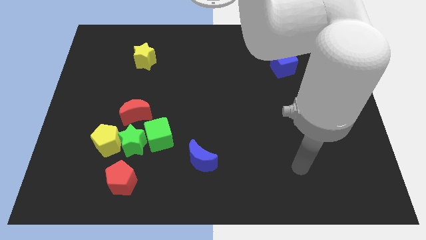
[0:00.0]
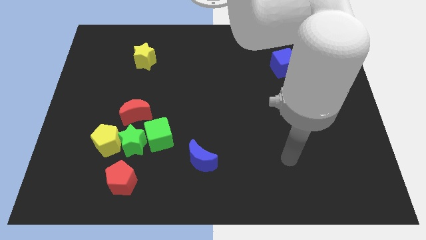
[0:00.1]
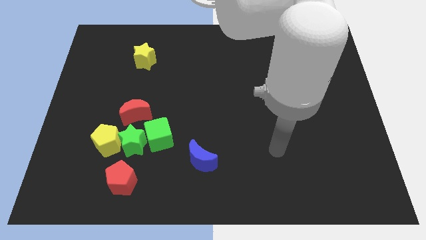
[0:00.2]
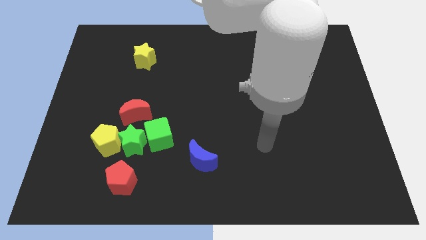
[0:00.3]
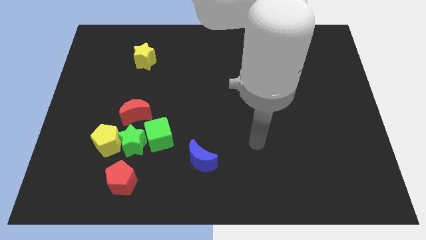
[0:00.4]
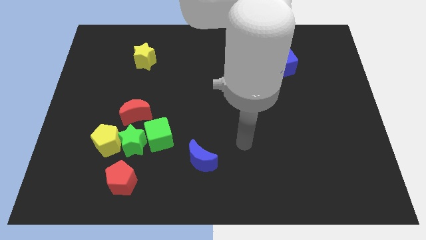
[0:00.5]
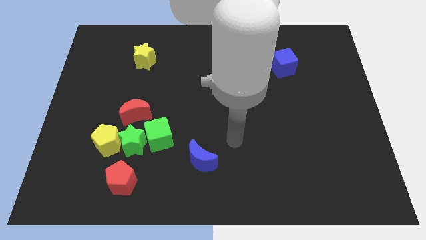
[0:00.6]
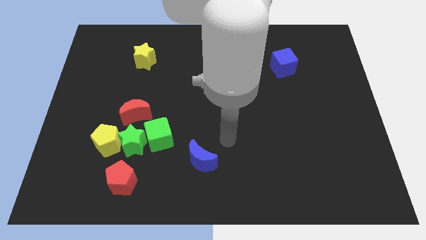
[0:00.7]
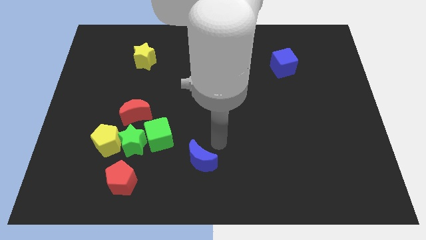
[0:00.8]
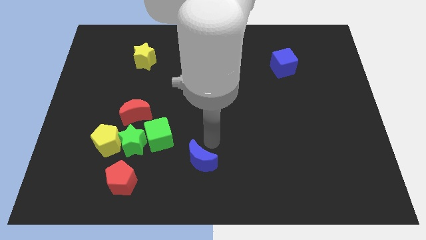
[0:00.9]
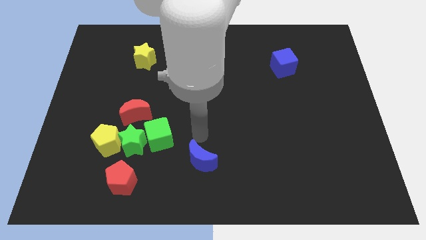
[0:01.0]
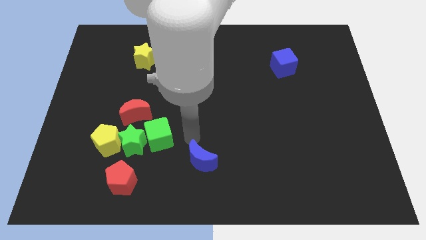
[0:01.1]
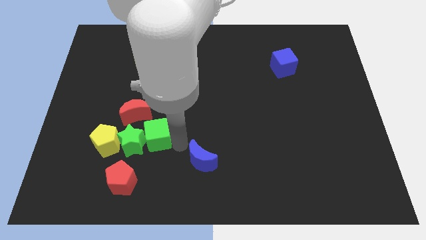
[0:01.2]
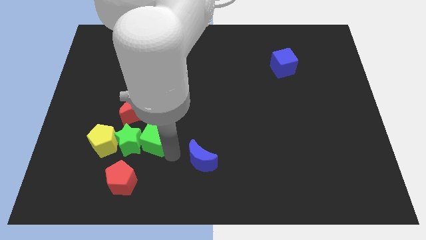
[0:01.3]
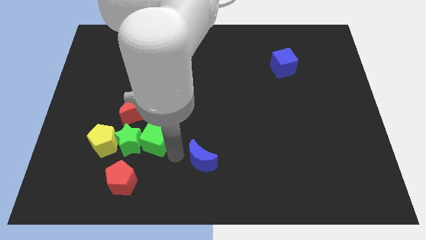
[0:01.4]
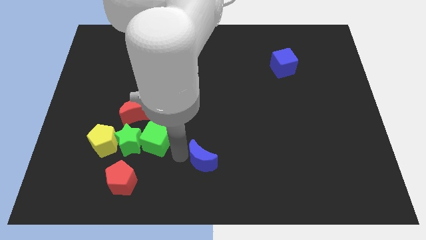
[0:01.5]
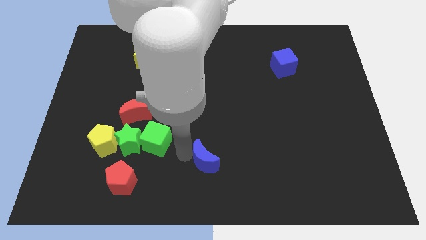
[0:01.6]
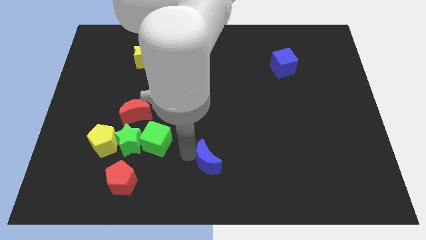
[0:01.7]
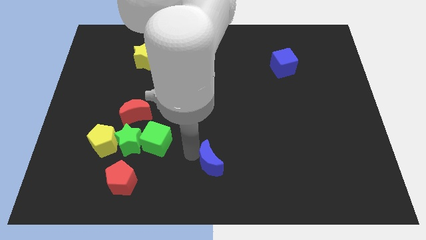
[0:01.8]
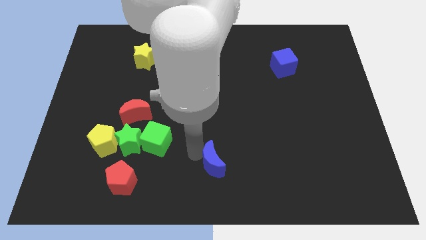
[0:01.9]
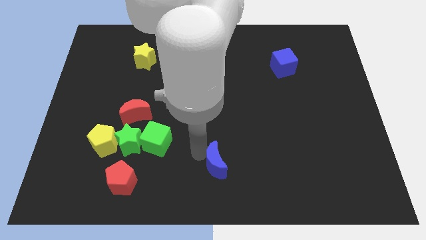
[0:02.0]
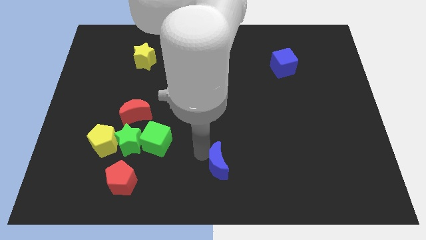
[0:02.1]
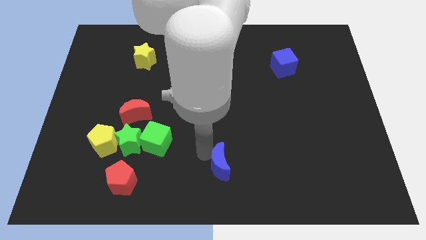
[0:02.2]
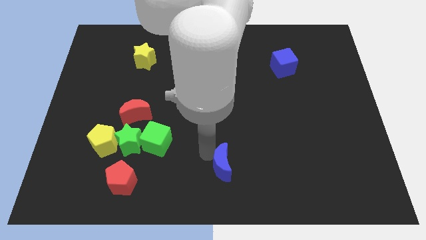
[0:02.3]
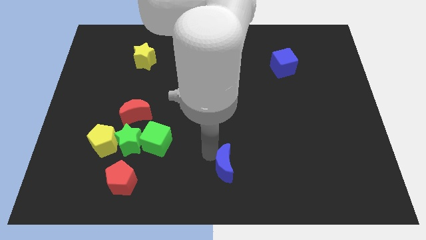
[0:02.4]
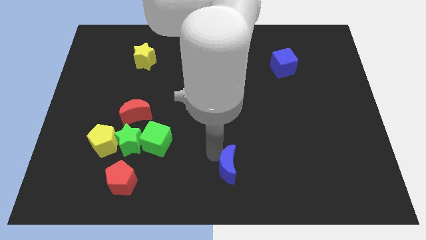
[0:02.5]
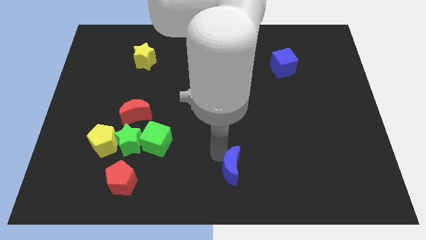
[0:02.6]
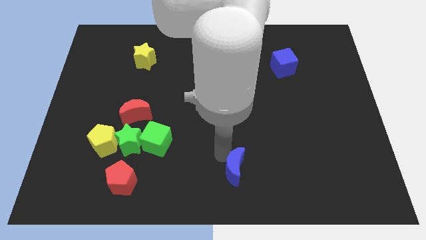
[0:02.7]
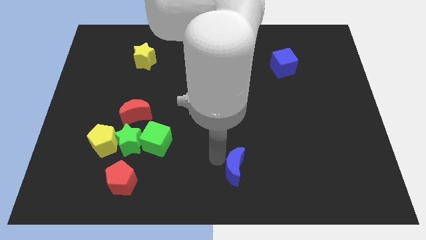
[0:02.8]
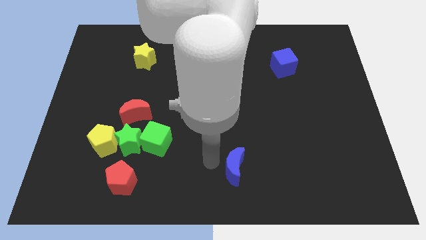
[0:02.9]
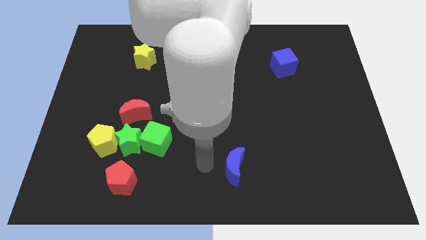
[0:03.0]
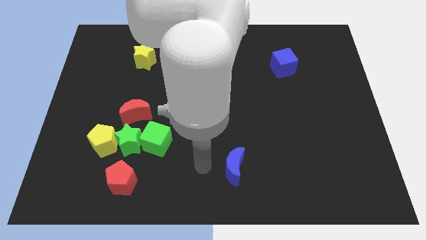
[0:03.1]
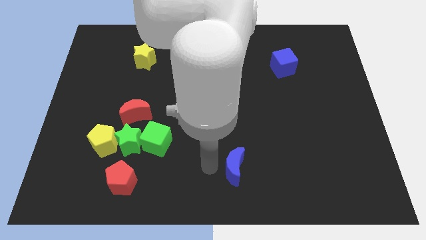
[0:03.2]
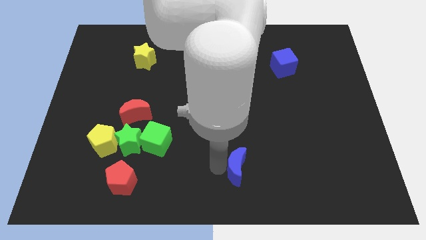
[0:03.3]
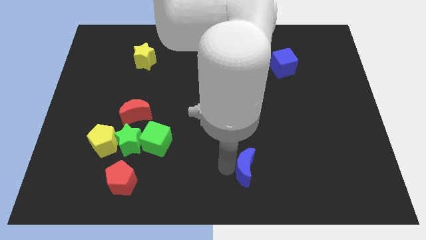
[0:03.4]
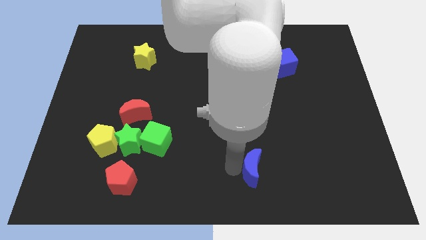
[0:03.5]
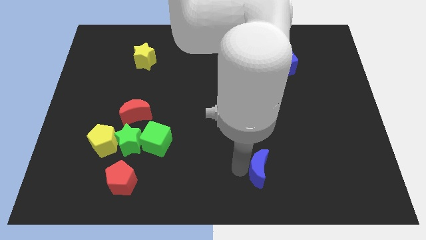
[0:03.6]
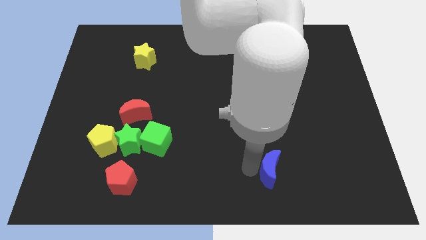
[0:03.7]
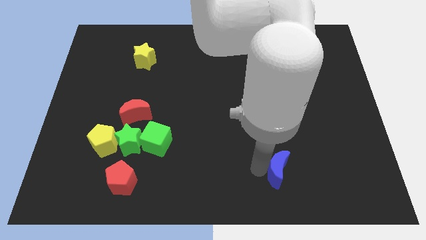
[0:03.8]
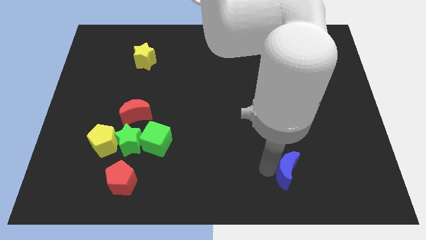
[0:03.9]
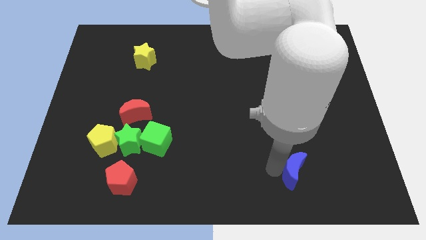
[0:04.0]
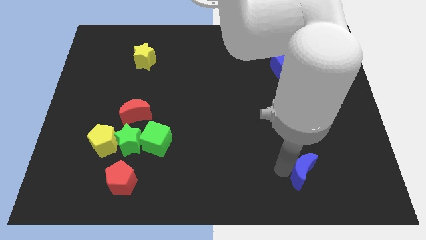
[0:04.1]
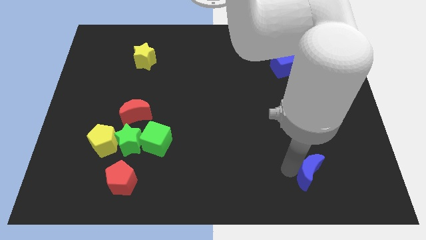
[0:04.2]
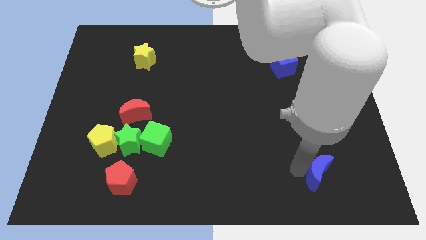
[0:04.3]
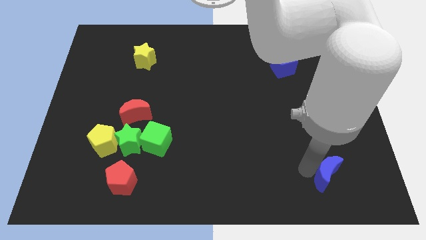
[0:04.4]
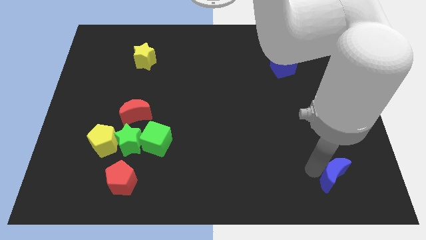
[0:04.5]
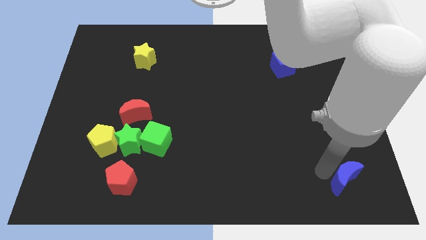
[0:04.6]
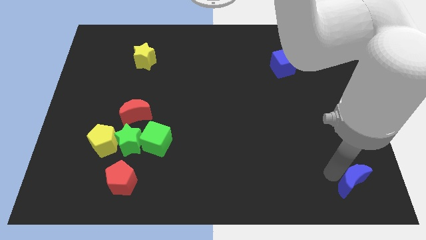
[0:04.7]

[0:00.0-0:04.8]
move the blue moon to the bottom right

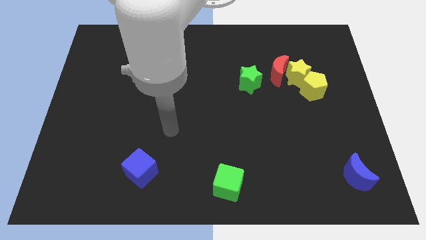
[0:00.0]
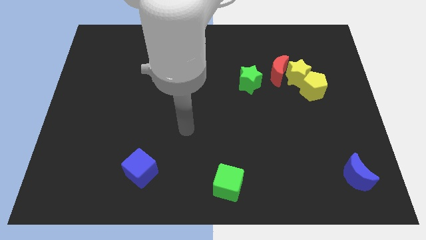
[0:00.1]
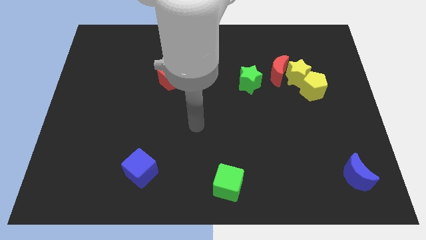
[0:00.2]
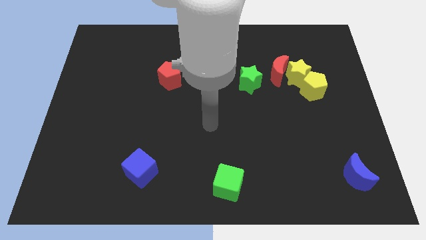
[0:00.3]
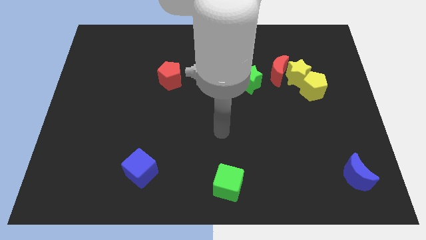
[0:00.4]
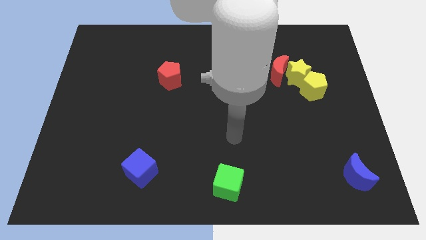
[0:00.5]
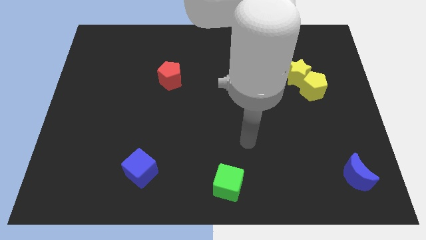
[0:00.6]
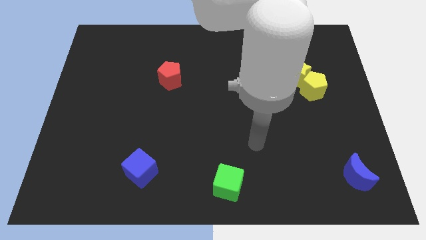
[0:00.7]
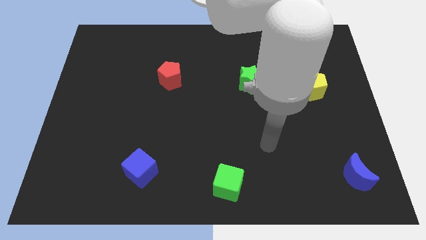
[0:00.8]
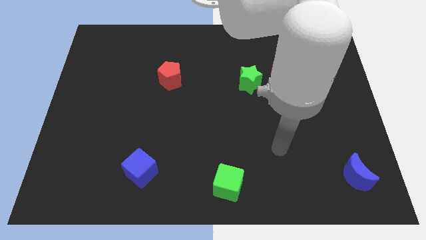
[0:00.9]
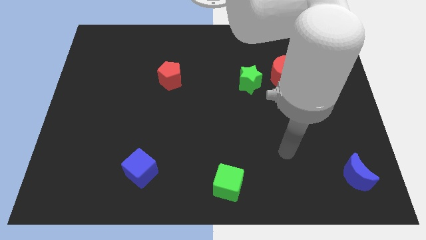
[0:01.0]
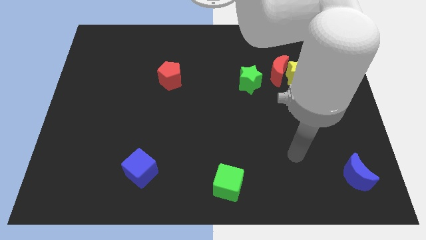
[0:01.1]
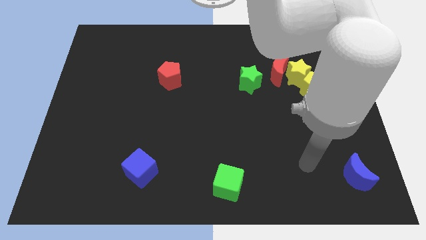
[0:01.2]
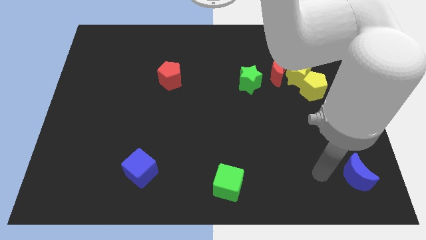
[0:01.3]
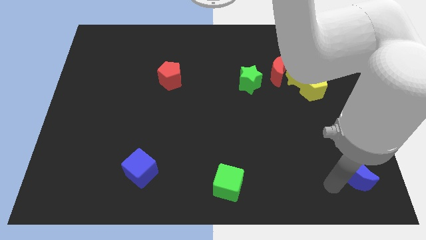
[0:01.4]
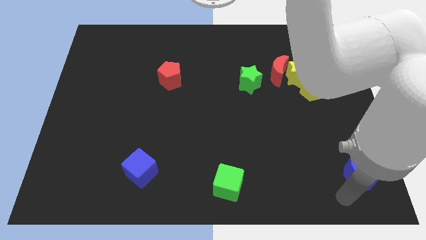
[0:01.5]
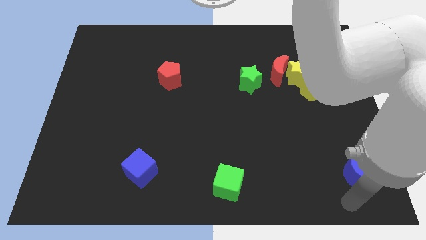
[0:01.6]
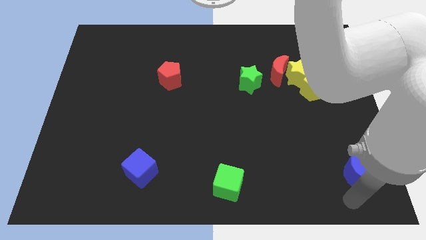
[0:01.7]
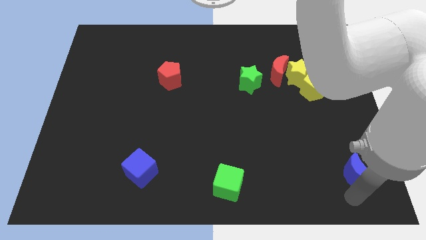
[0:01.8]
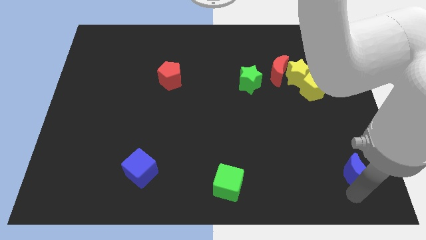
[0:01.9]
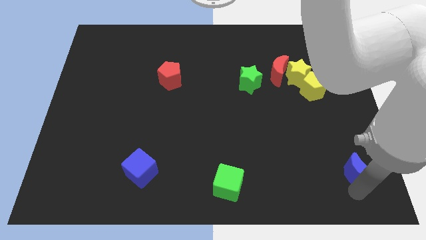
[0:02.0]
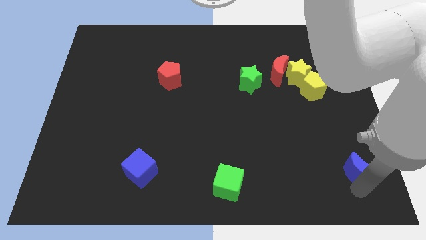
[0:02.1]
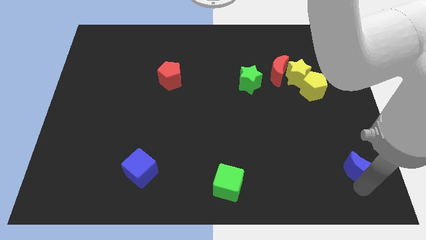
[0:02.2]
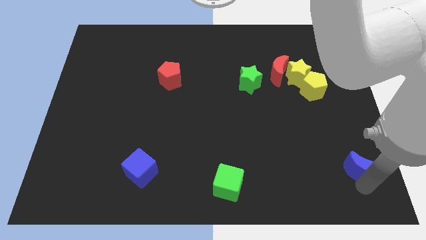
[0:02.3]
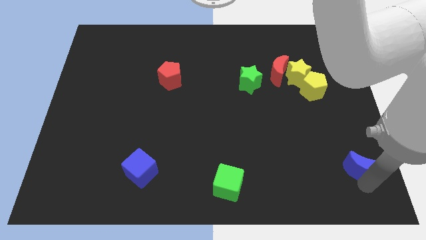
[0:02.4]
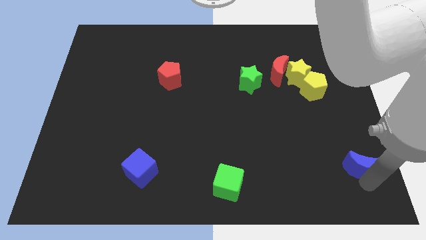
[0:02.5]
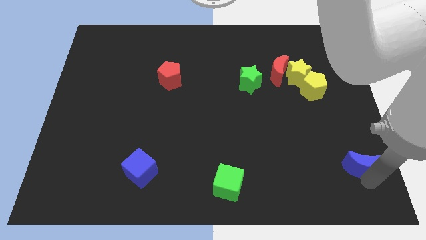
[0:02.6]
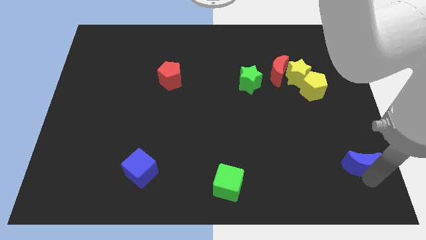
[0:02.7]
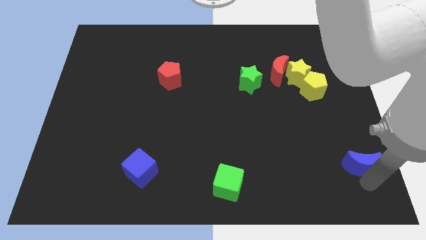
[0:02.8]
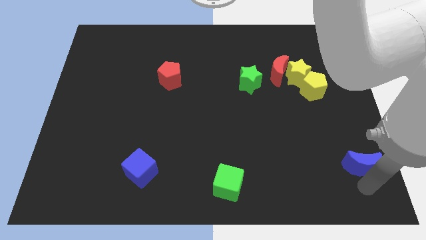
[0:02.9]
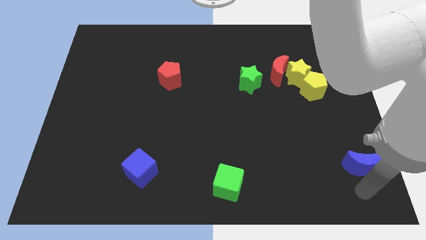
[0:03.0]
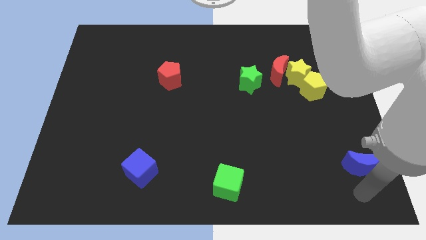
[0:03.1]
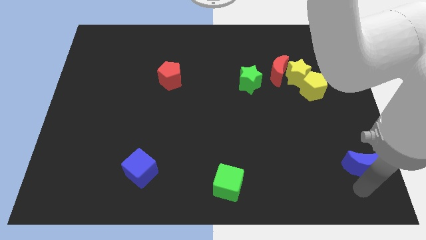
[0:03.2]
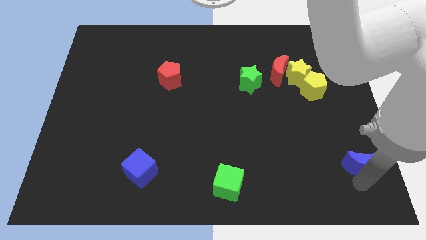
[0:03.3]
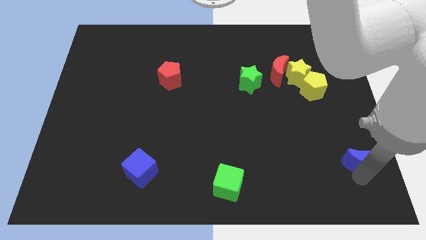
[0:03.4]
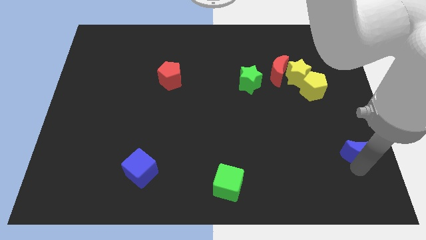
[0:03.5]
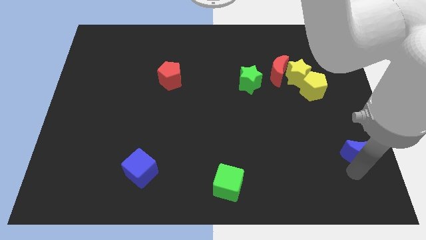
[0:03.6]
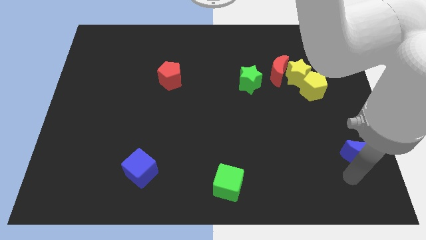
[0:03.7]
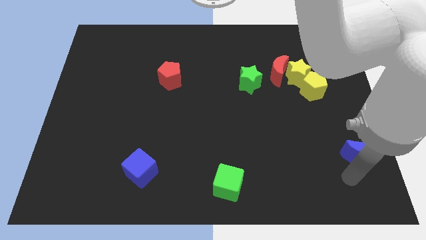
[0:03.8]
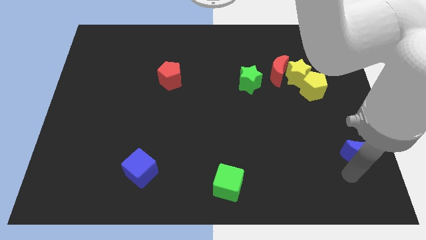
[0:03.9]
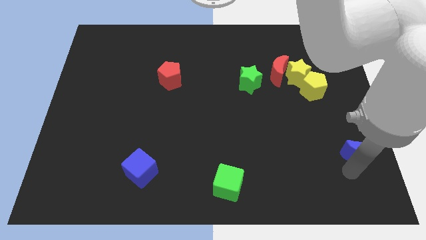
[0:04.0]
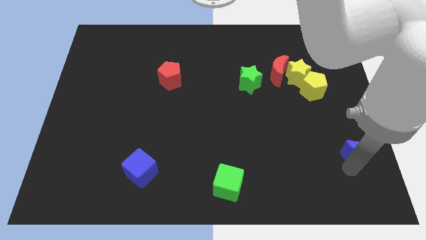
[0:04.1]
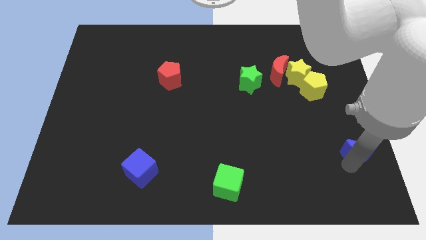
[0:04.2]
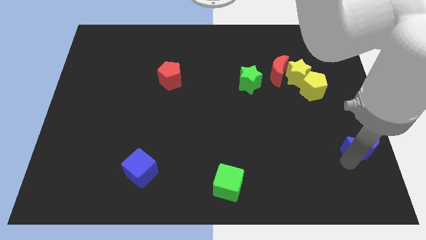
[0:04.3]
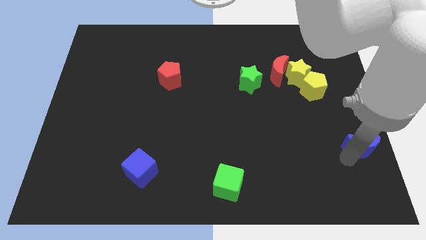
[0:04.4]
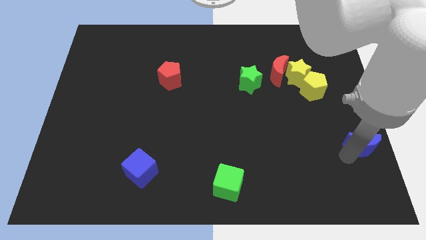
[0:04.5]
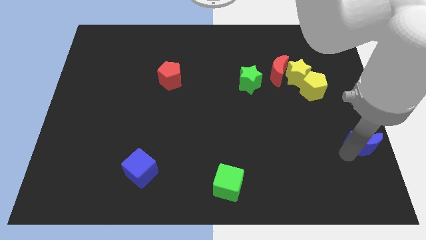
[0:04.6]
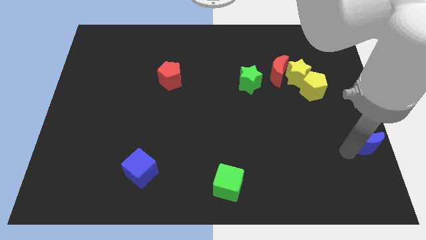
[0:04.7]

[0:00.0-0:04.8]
move the blue moon to the center right
